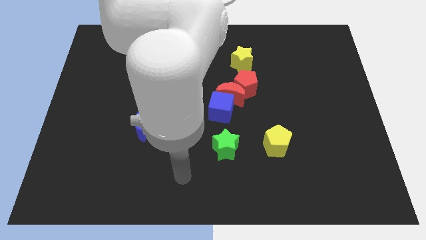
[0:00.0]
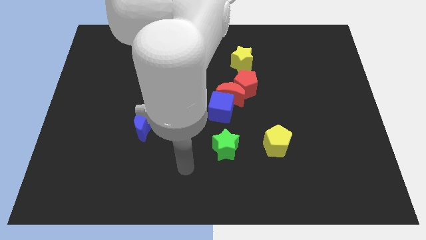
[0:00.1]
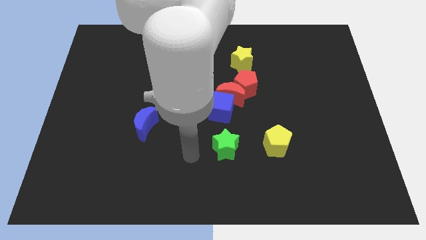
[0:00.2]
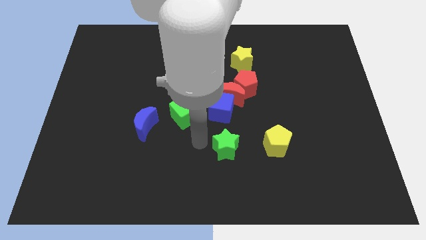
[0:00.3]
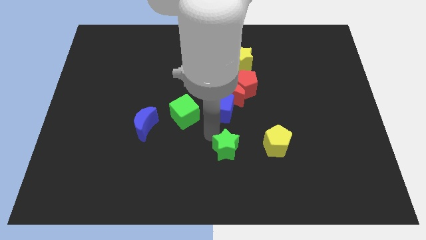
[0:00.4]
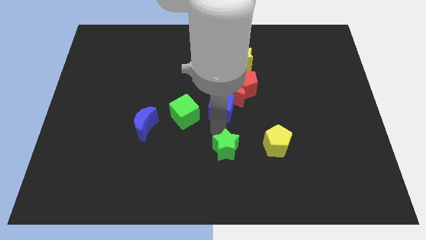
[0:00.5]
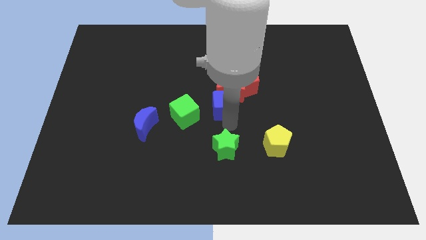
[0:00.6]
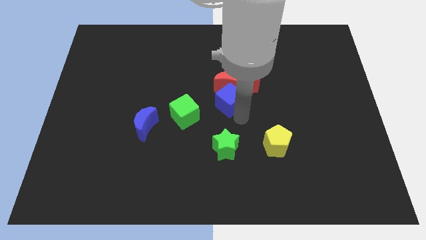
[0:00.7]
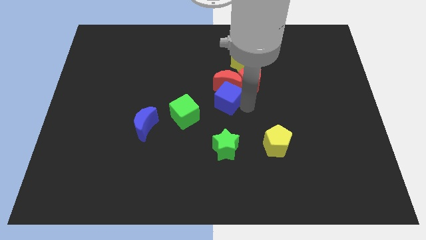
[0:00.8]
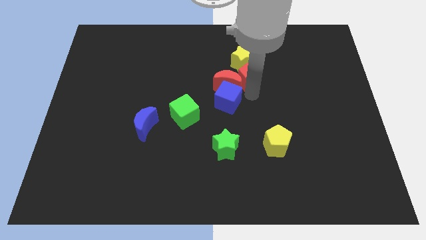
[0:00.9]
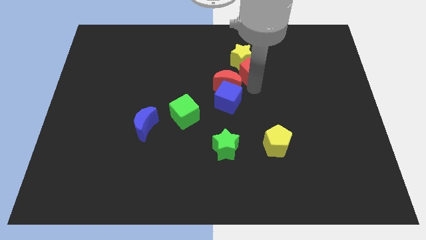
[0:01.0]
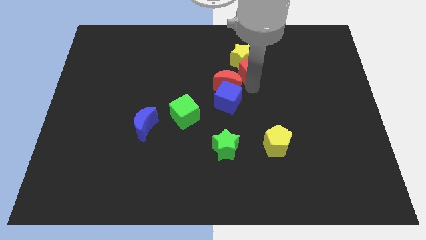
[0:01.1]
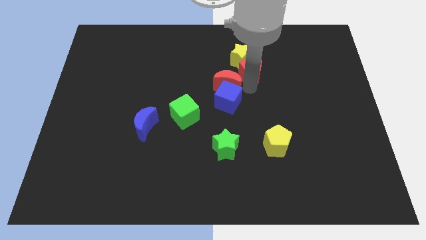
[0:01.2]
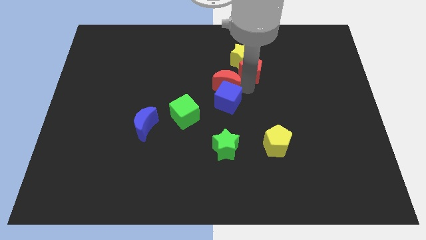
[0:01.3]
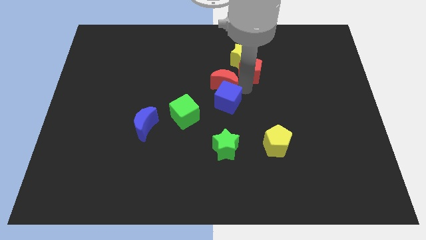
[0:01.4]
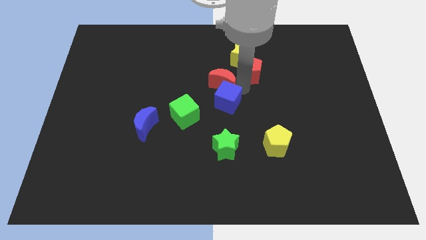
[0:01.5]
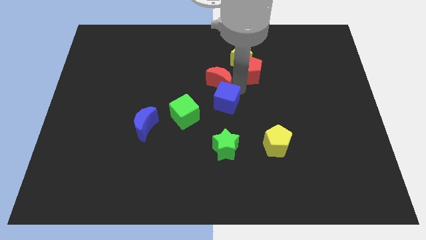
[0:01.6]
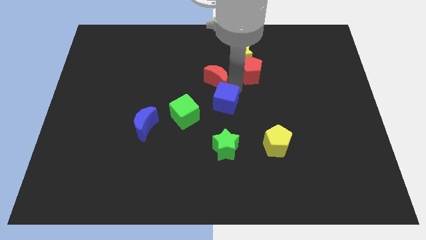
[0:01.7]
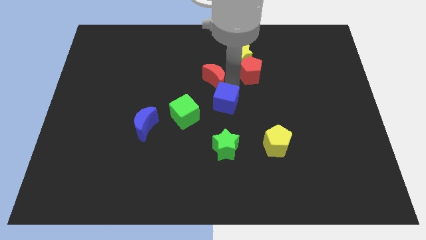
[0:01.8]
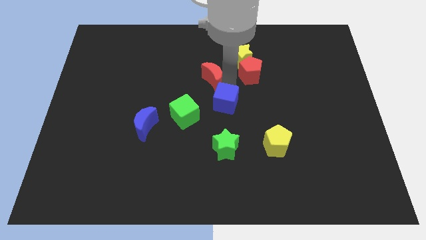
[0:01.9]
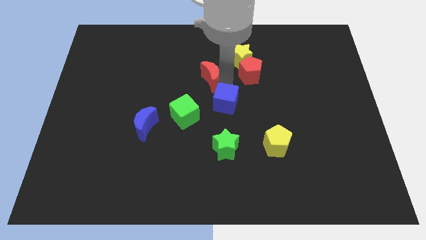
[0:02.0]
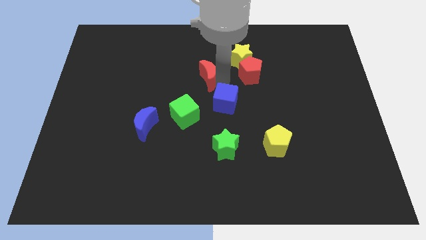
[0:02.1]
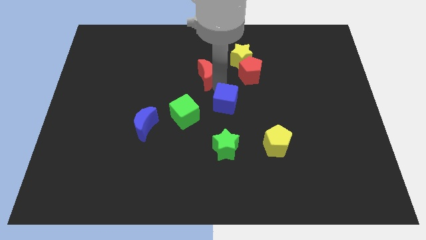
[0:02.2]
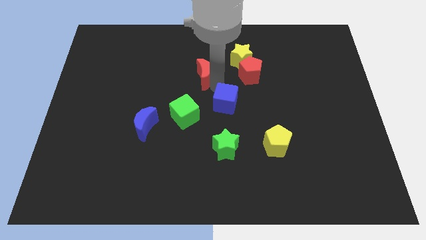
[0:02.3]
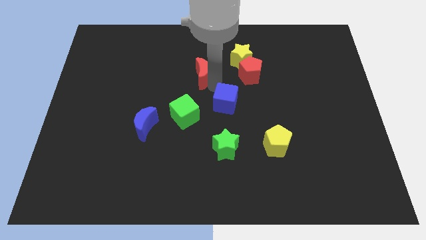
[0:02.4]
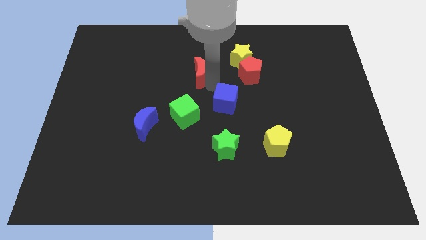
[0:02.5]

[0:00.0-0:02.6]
pull the red moon apart from the red pentagon and blue cube

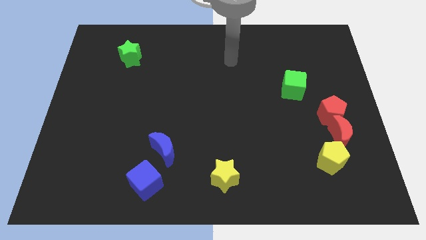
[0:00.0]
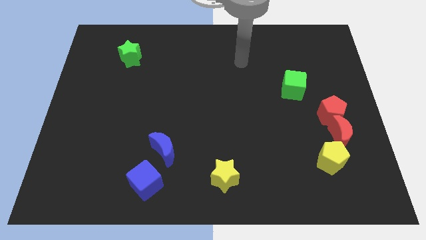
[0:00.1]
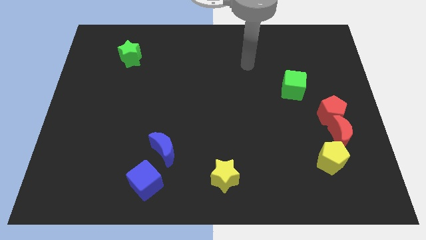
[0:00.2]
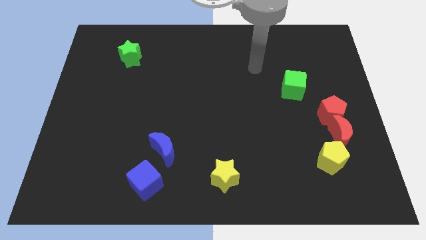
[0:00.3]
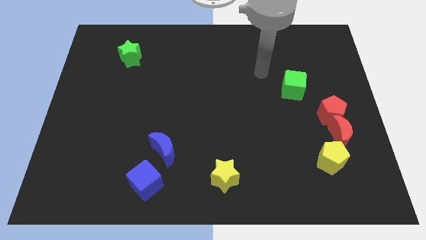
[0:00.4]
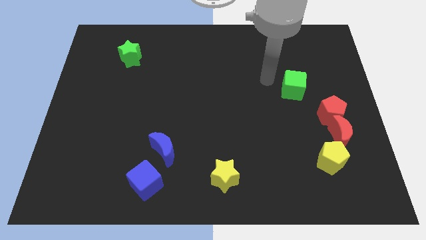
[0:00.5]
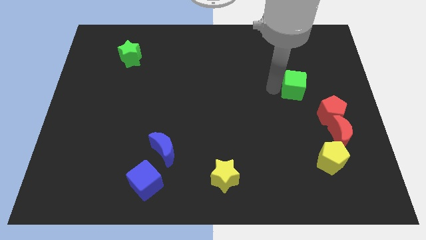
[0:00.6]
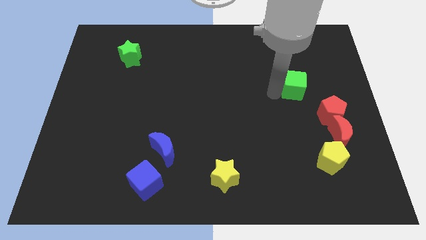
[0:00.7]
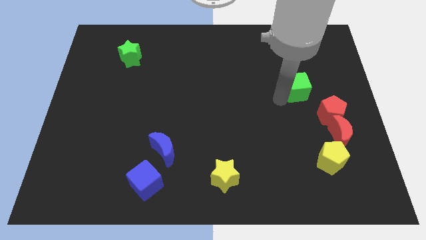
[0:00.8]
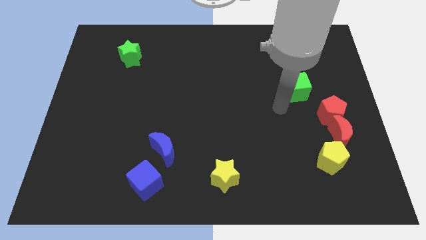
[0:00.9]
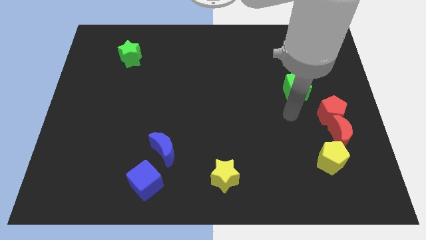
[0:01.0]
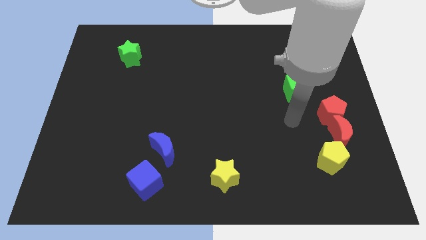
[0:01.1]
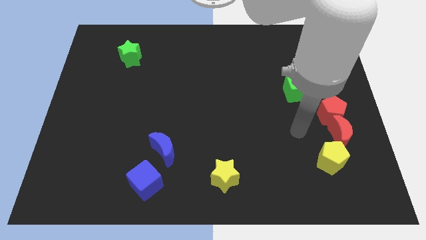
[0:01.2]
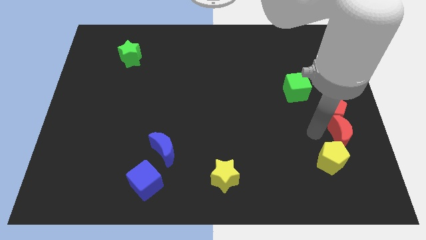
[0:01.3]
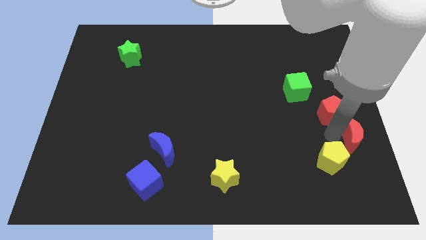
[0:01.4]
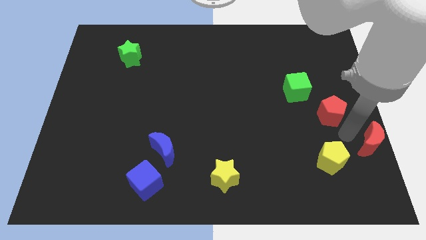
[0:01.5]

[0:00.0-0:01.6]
pull the red pentagon apart from the red moon

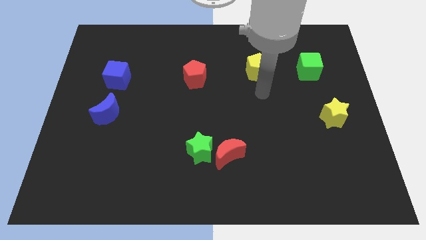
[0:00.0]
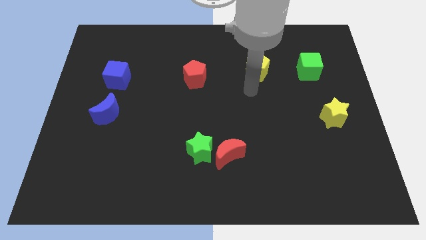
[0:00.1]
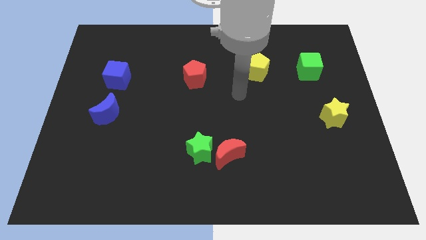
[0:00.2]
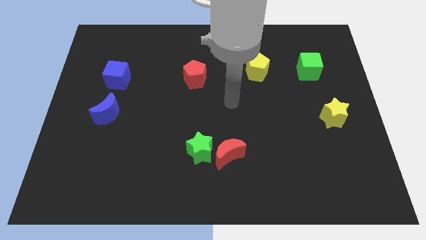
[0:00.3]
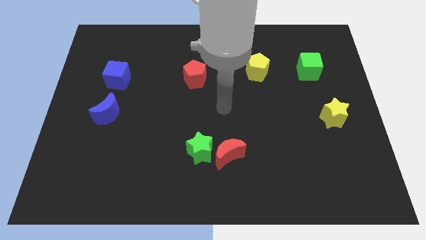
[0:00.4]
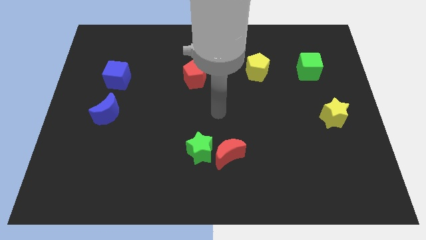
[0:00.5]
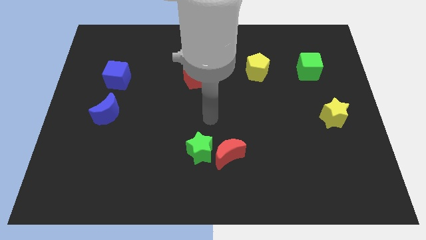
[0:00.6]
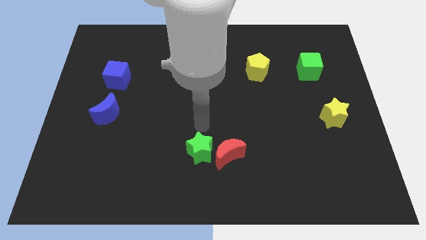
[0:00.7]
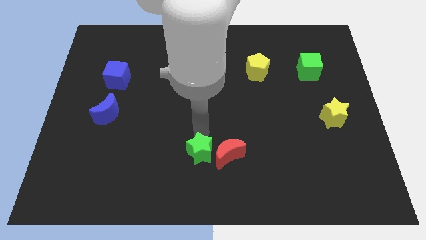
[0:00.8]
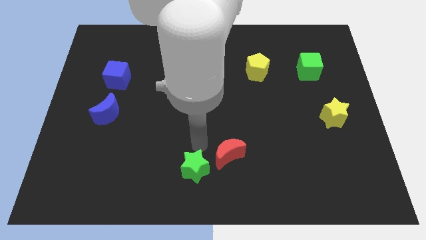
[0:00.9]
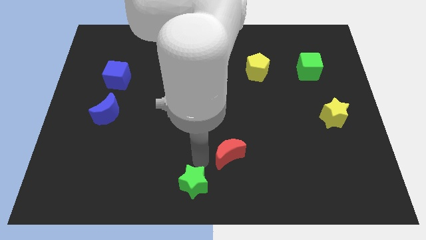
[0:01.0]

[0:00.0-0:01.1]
pull the red moon apart from the green star

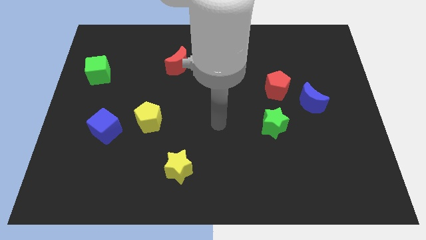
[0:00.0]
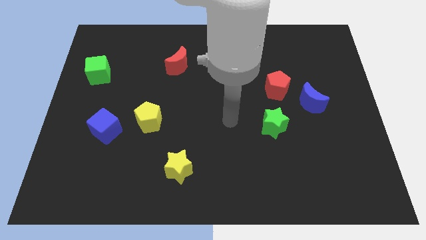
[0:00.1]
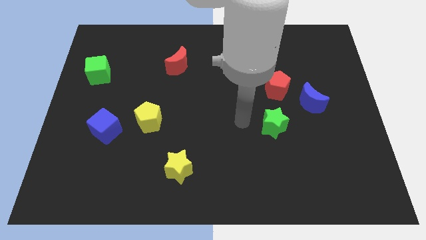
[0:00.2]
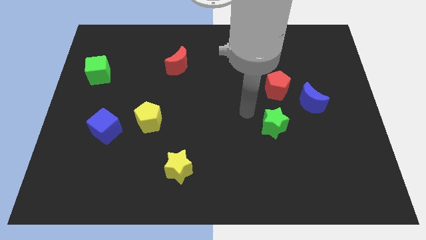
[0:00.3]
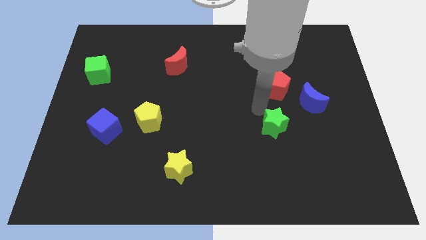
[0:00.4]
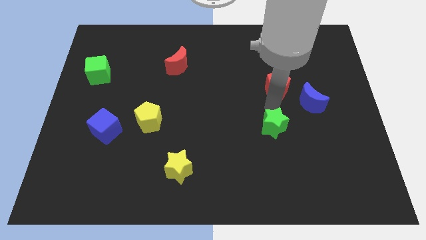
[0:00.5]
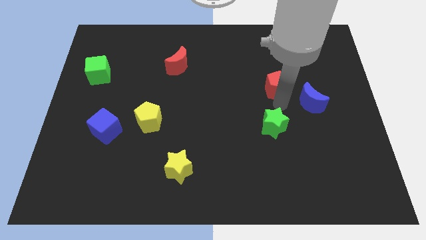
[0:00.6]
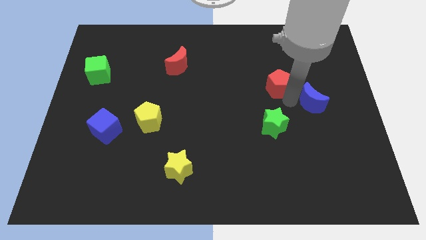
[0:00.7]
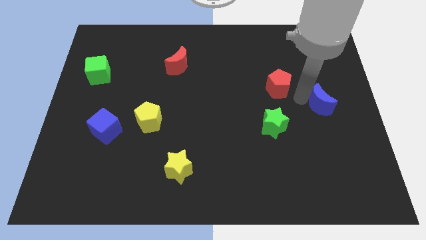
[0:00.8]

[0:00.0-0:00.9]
move the red pentagon away from the blue moon

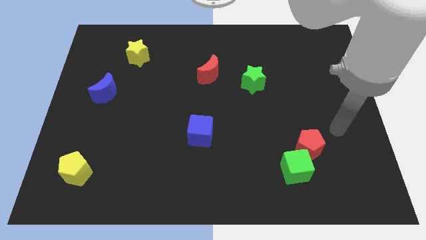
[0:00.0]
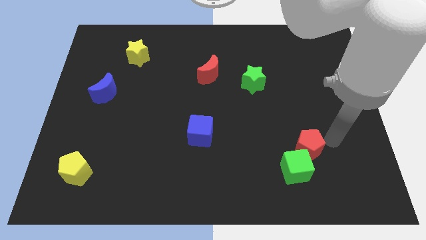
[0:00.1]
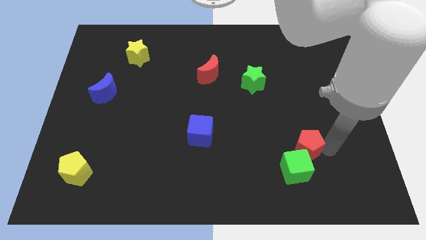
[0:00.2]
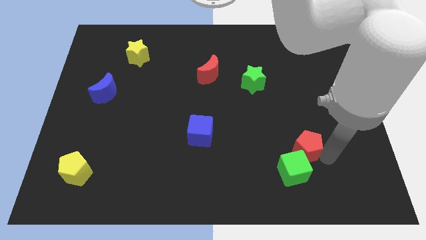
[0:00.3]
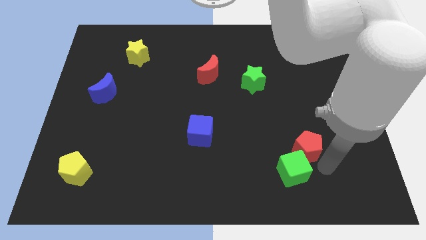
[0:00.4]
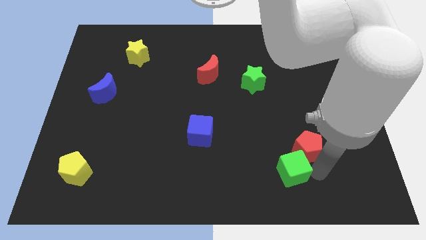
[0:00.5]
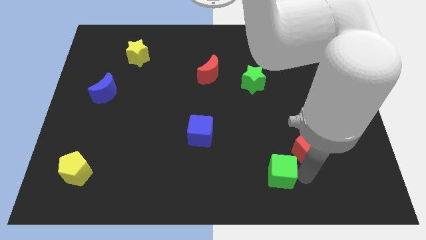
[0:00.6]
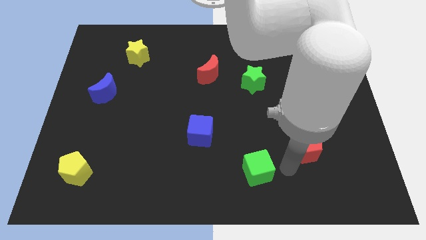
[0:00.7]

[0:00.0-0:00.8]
move the red pentagon away from the green cube

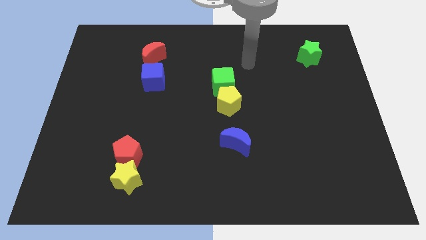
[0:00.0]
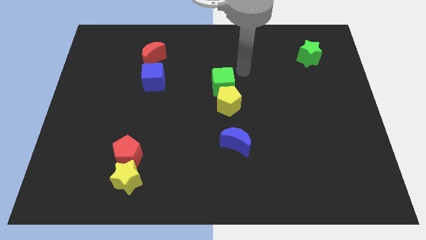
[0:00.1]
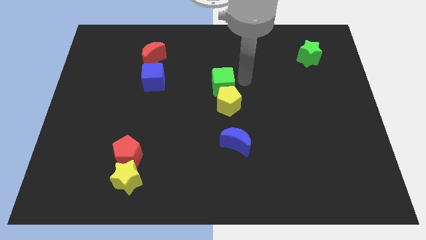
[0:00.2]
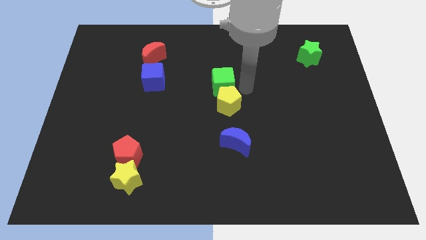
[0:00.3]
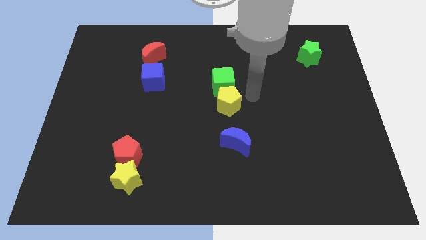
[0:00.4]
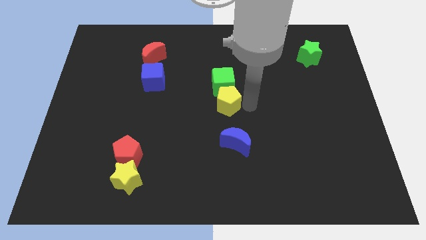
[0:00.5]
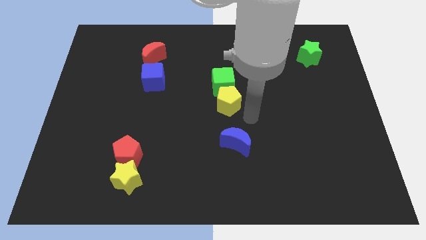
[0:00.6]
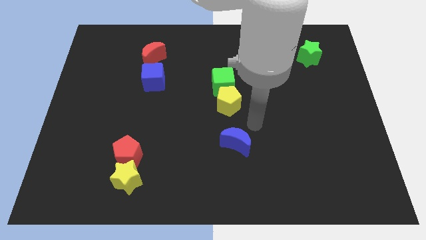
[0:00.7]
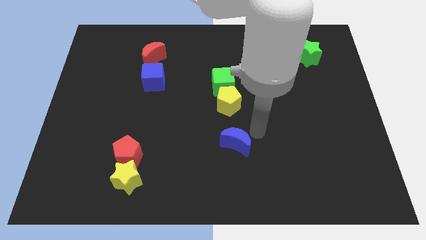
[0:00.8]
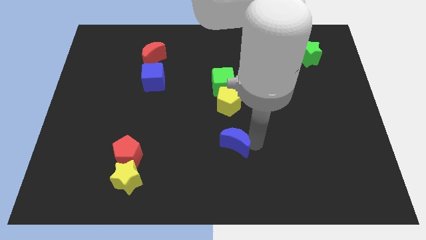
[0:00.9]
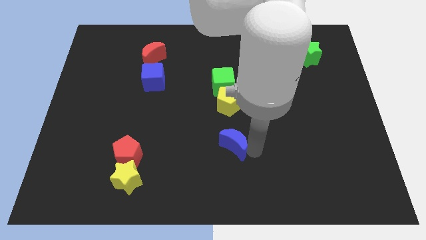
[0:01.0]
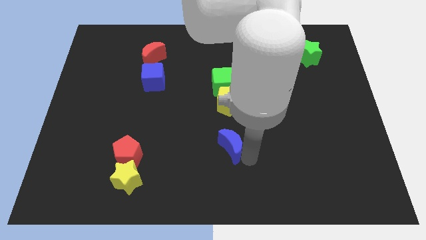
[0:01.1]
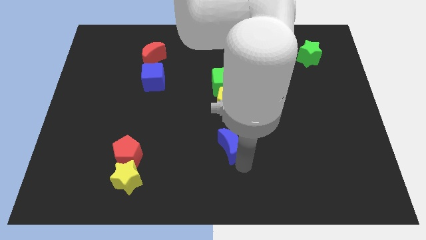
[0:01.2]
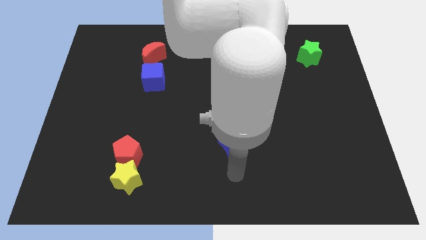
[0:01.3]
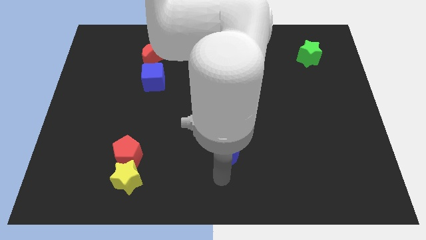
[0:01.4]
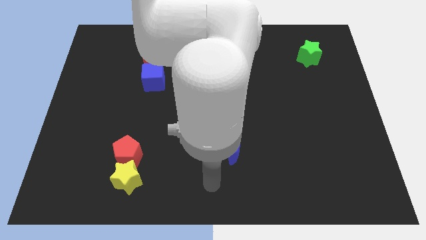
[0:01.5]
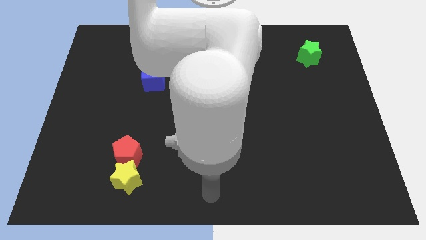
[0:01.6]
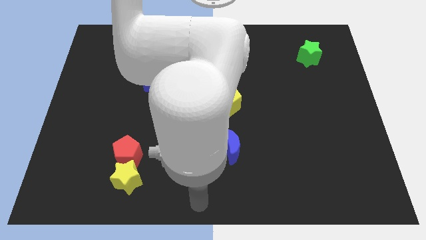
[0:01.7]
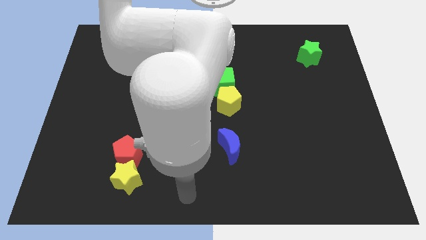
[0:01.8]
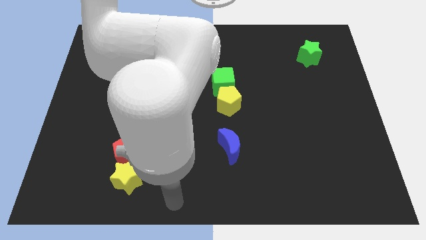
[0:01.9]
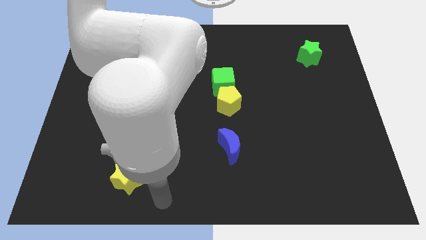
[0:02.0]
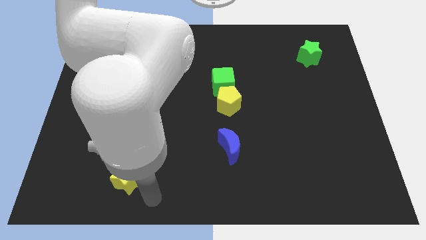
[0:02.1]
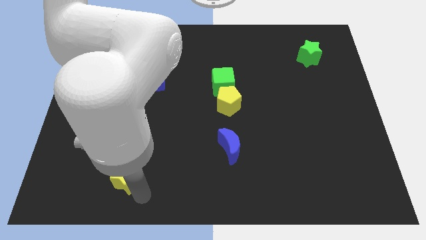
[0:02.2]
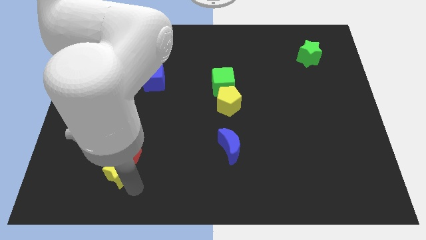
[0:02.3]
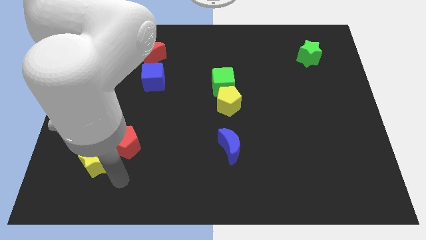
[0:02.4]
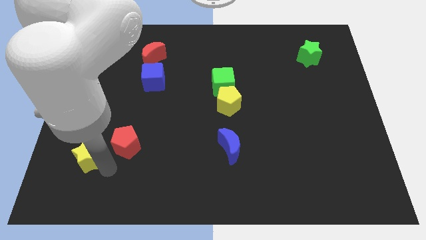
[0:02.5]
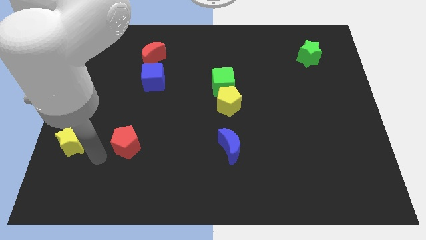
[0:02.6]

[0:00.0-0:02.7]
separate the red pentagon from the yellow star
